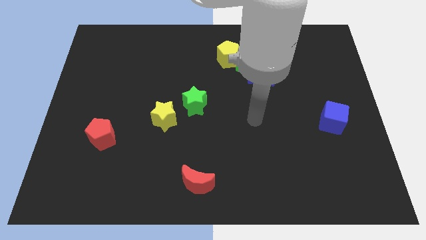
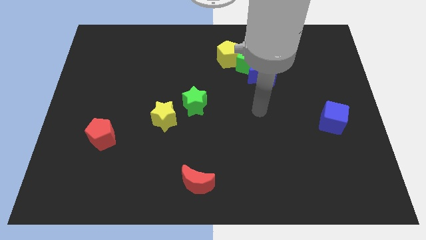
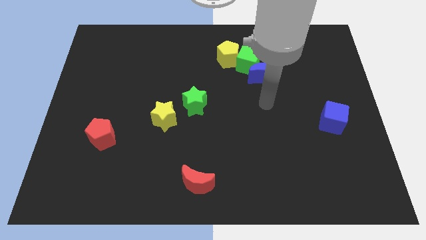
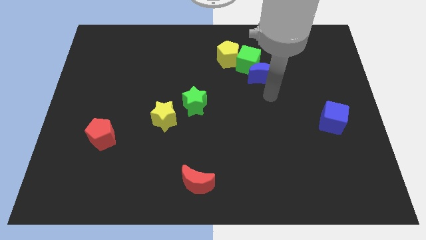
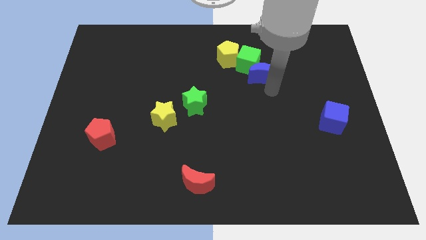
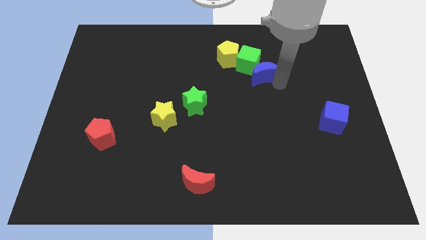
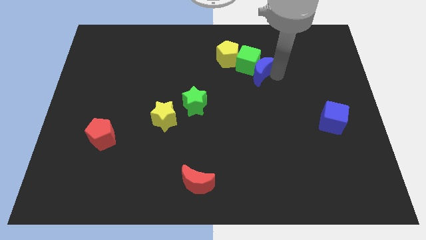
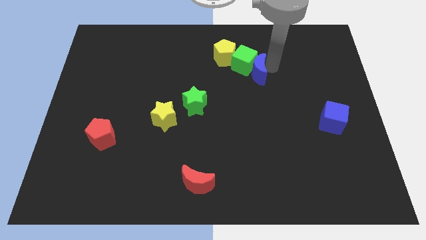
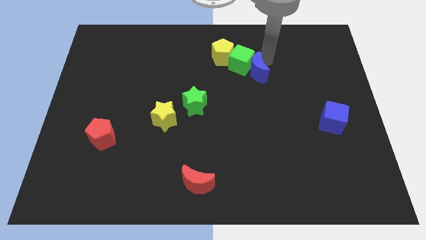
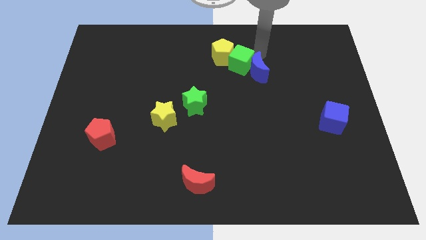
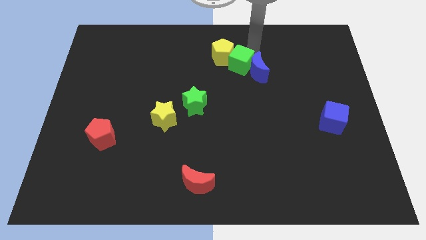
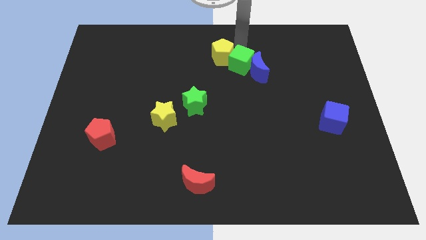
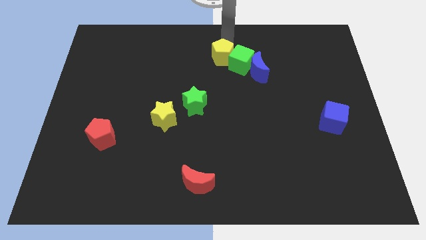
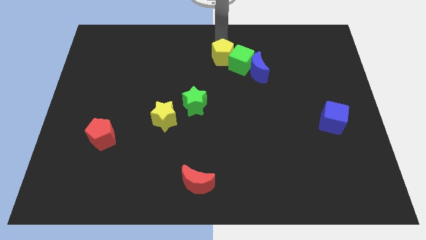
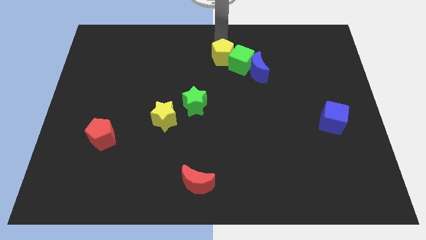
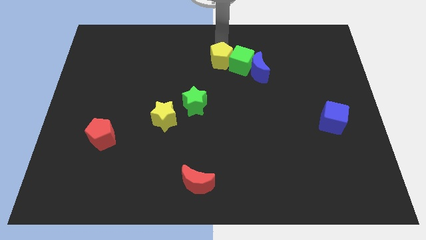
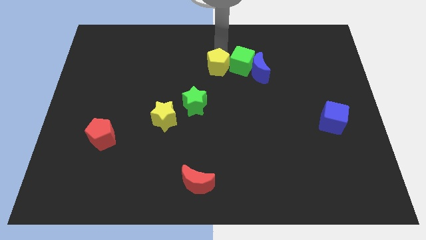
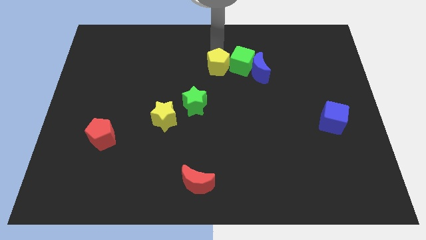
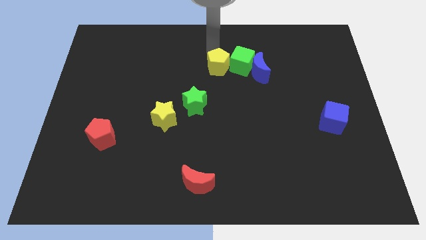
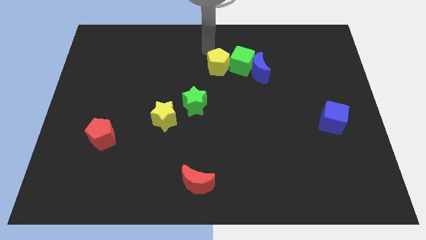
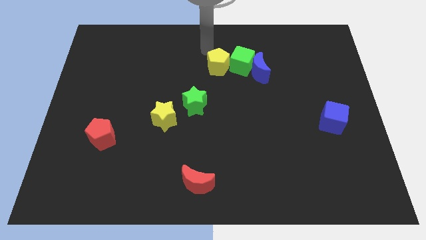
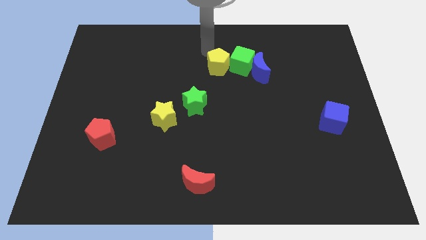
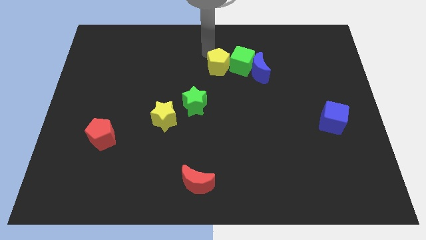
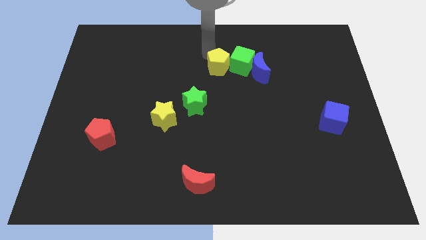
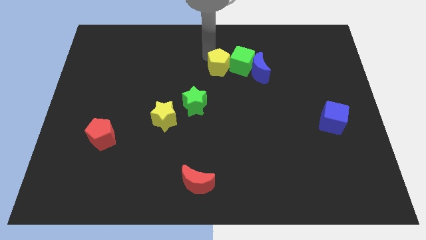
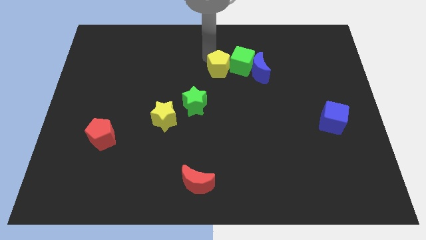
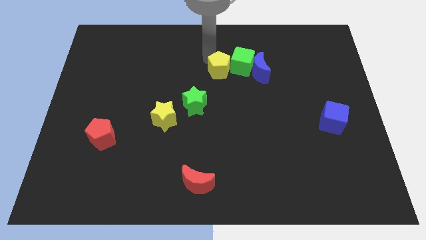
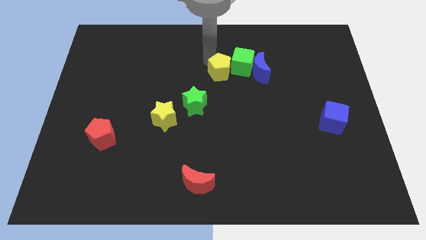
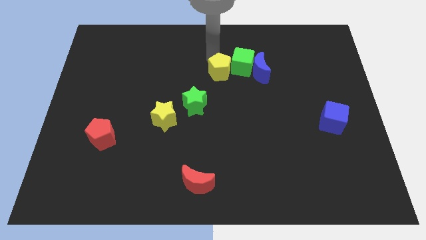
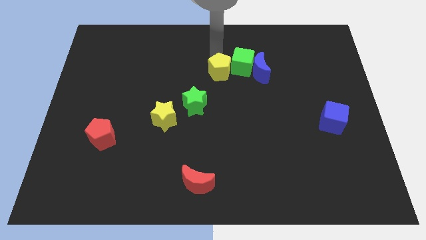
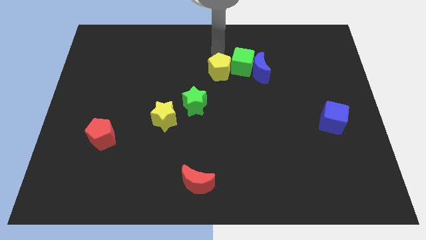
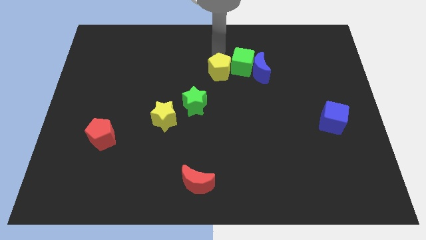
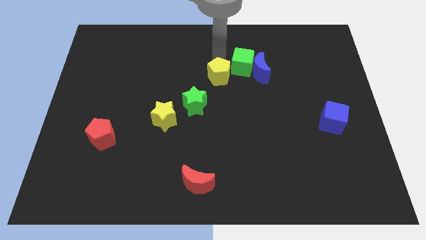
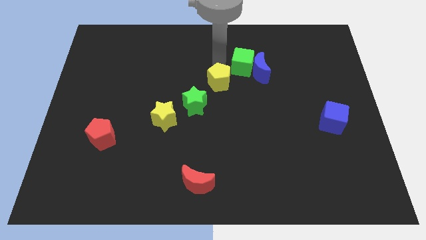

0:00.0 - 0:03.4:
slide the yellow pentagon a little down

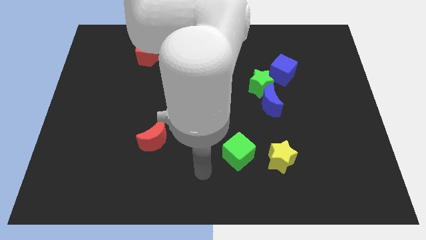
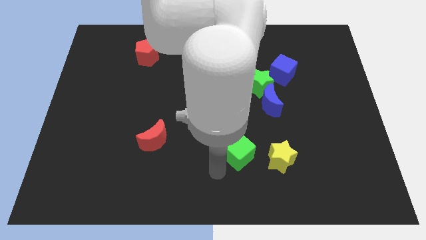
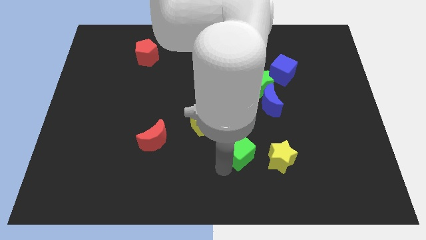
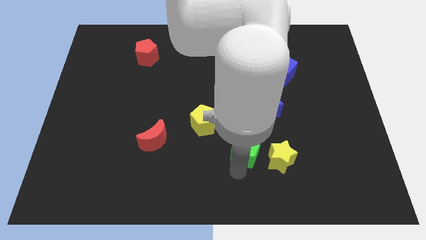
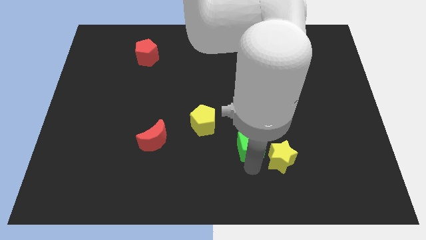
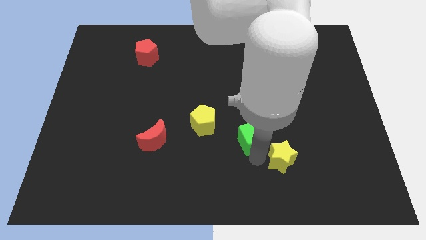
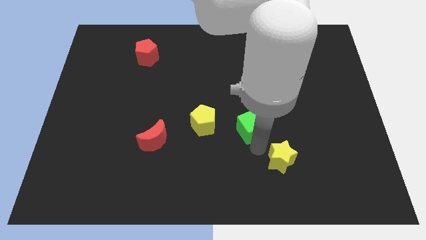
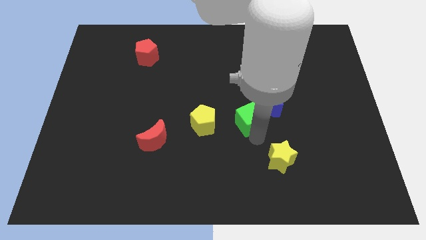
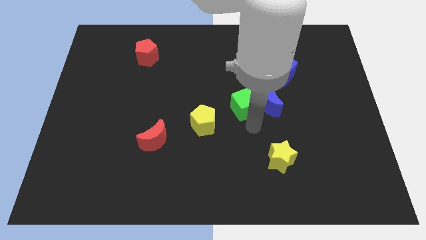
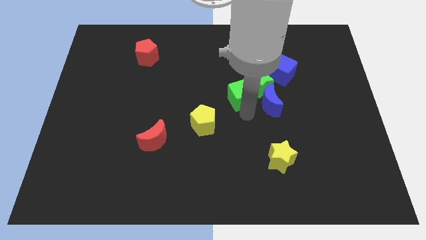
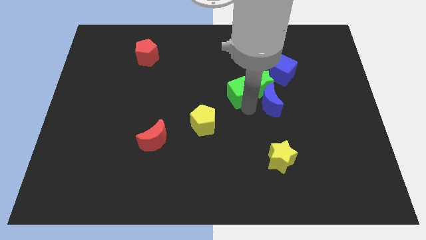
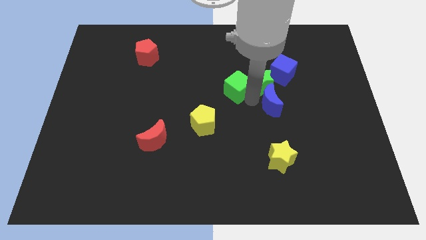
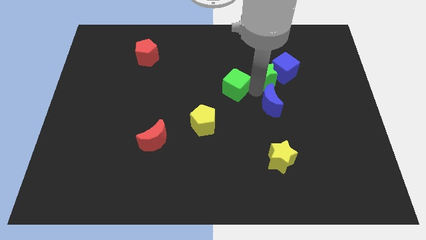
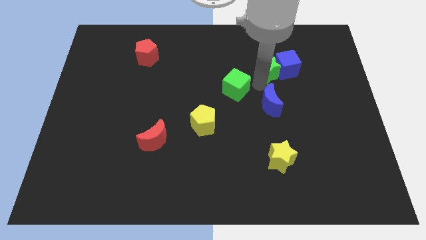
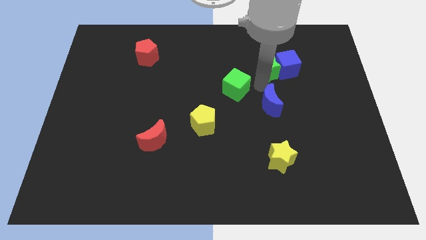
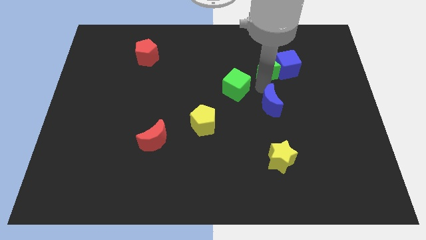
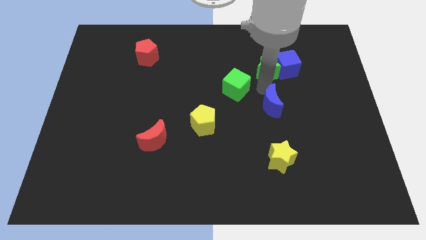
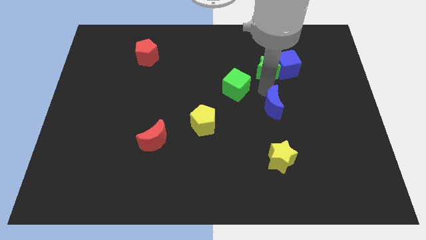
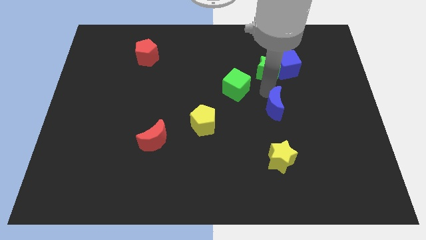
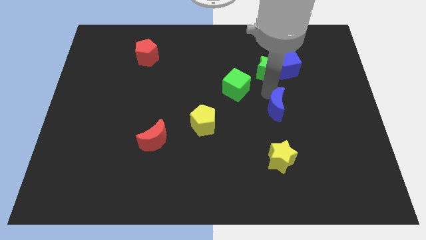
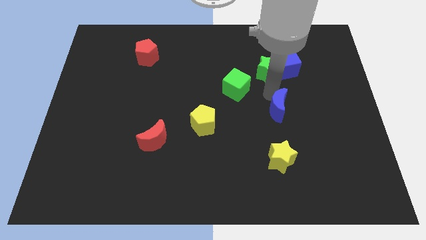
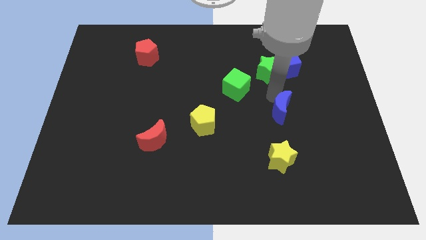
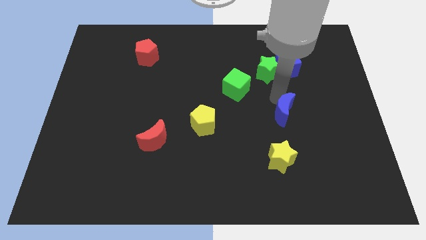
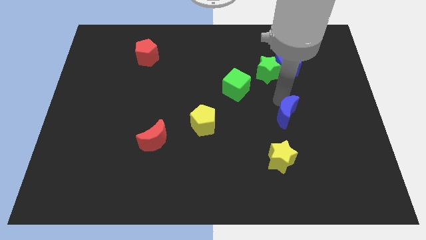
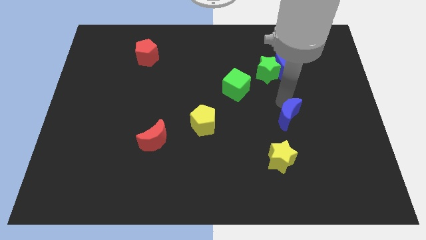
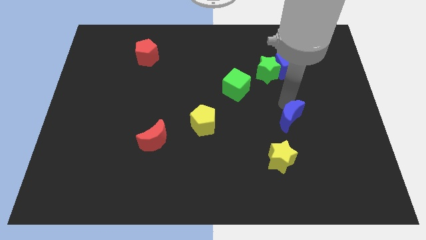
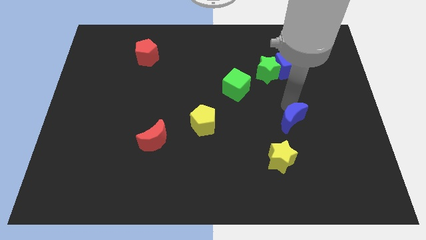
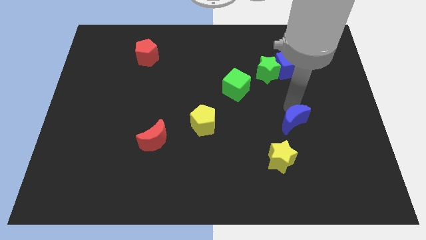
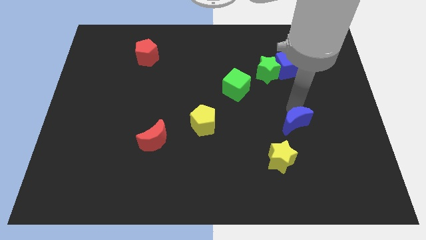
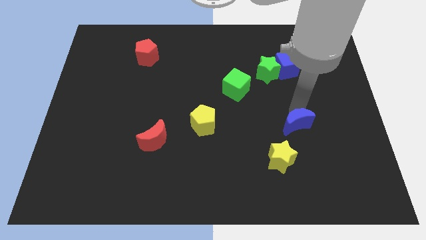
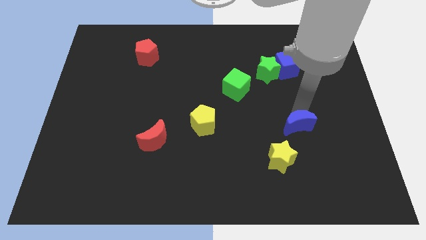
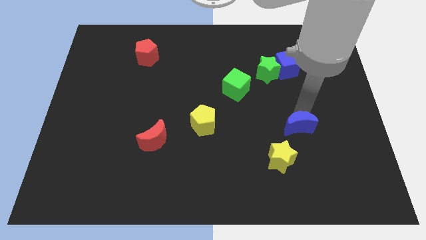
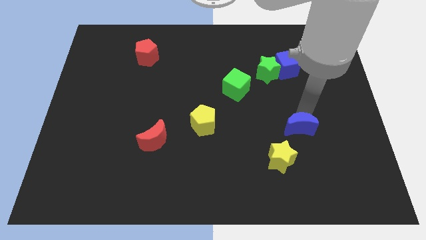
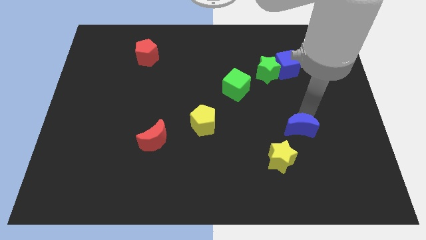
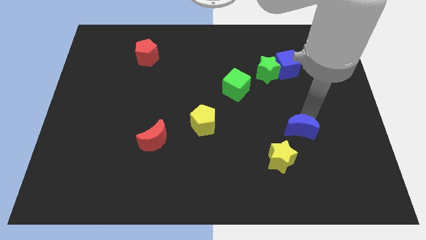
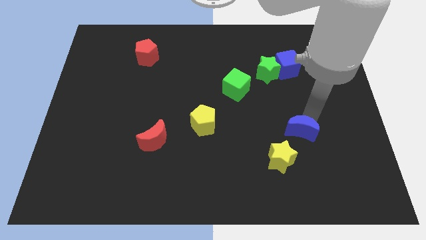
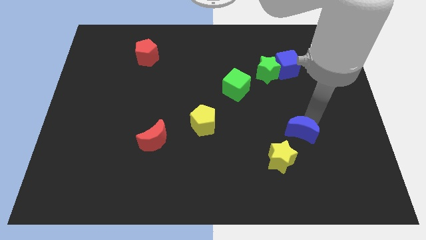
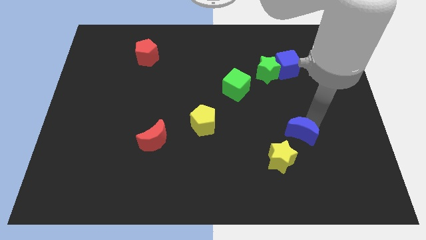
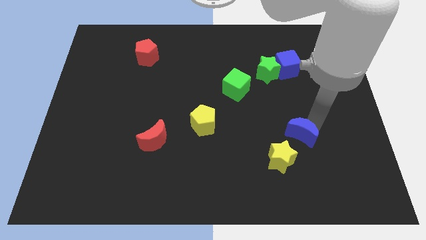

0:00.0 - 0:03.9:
push the blue moon a little bit down

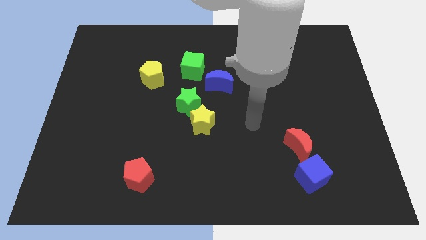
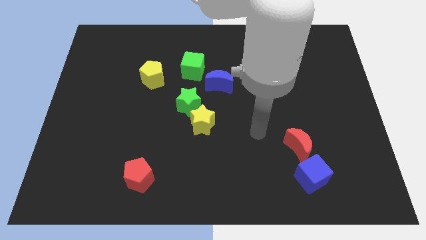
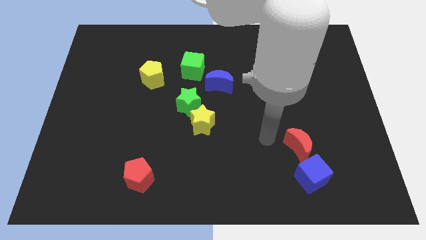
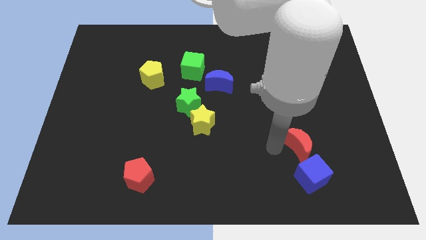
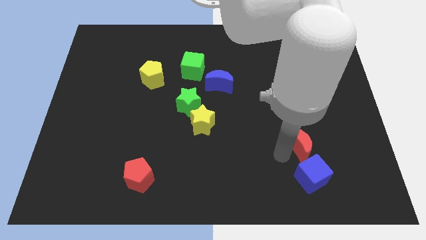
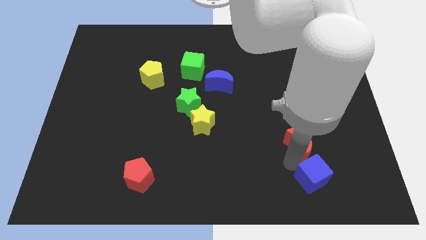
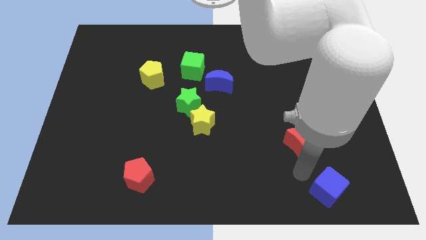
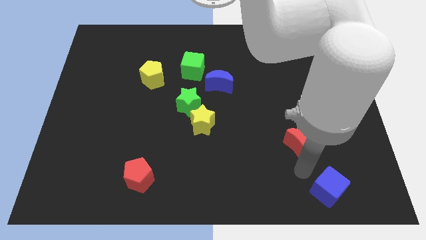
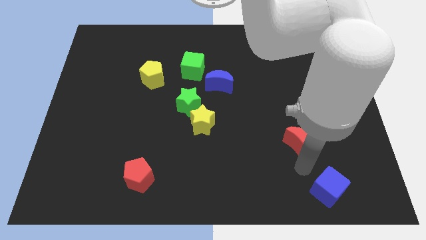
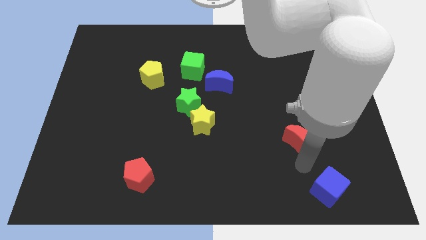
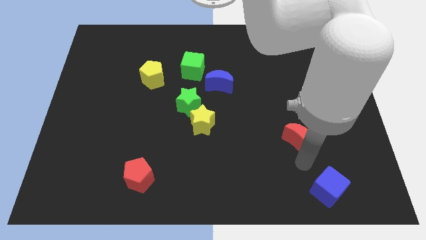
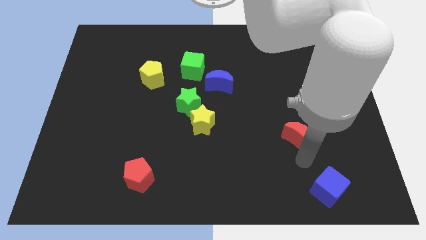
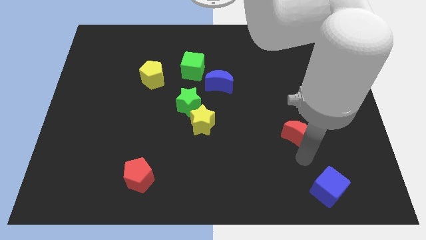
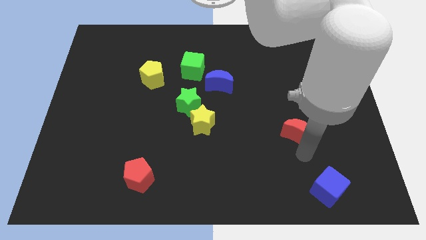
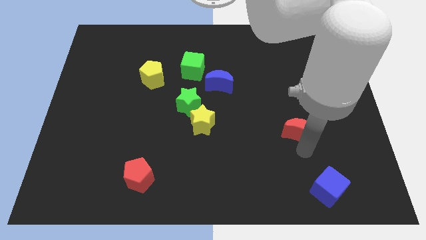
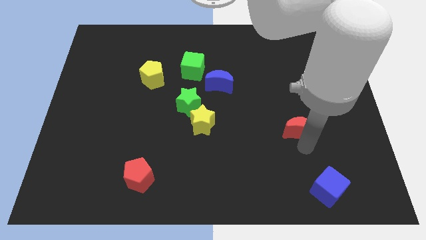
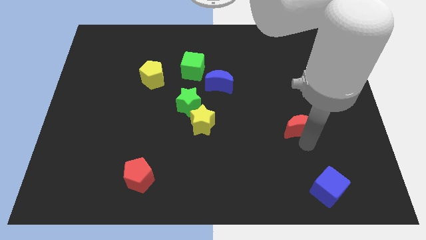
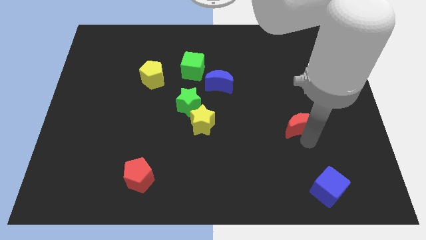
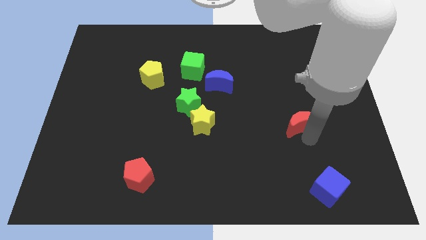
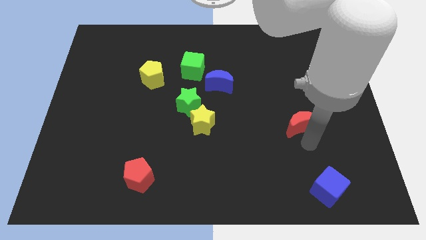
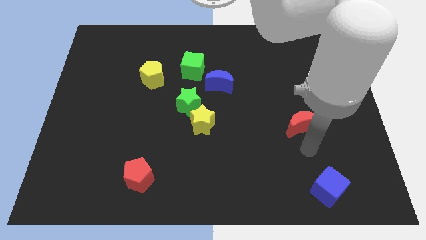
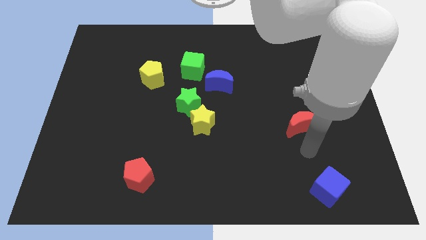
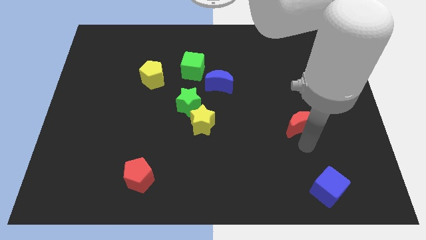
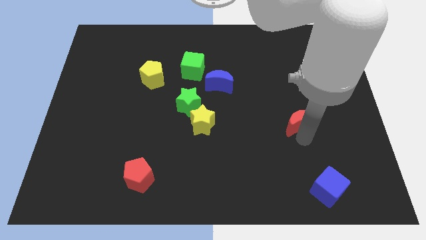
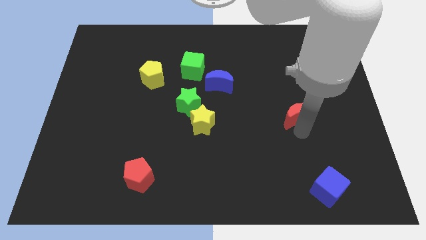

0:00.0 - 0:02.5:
slightly move the red moon up
